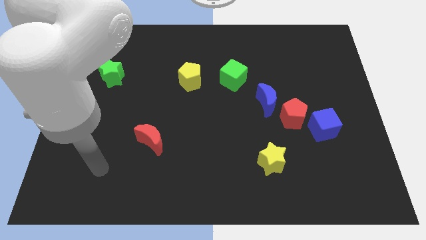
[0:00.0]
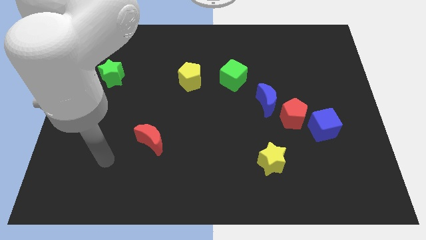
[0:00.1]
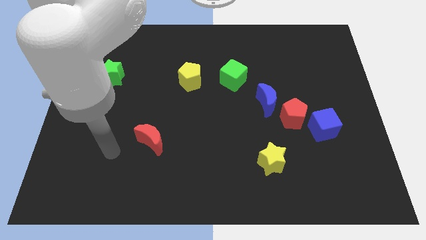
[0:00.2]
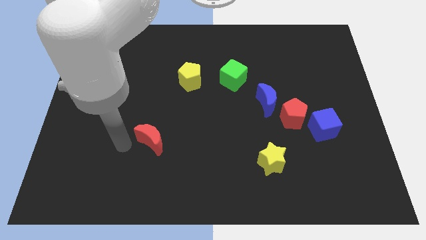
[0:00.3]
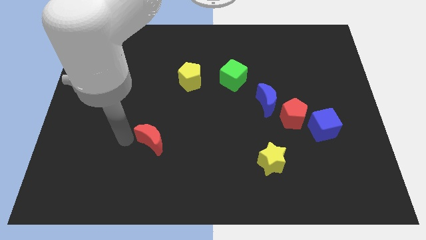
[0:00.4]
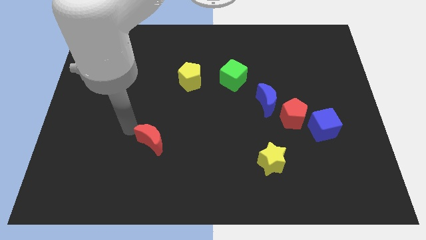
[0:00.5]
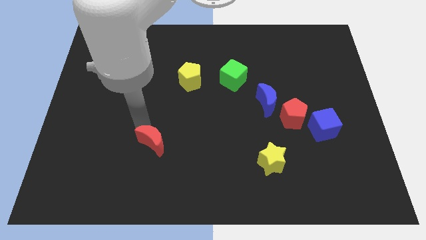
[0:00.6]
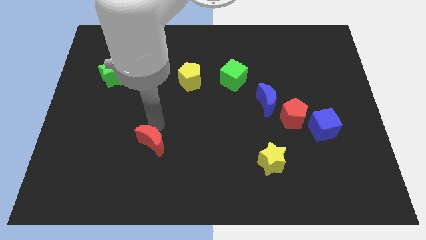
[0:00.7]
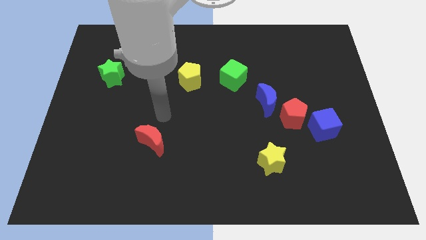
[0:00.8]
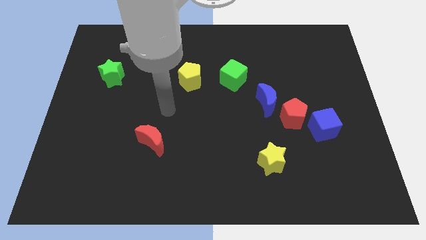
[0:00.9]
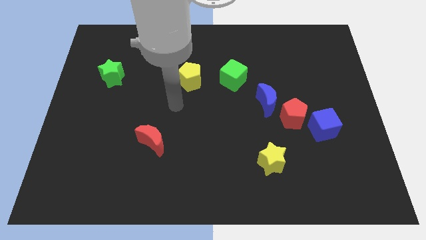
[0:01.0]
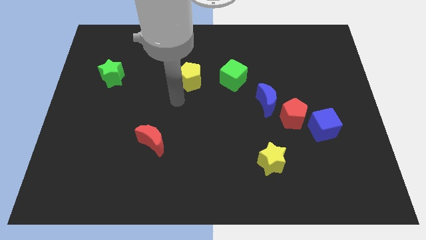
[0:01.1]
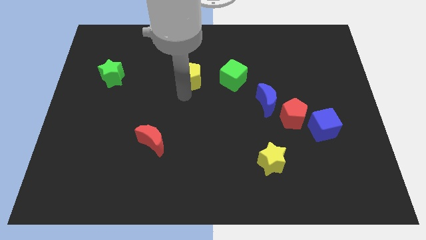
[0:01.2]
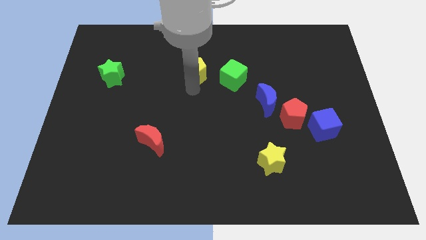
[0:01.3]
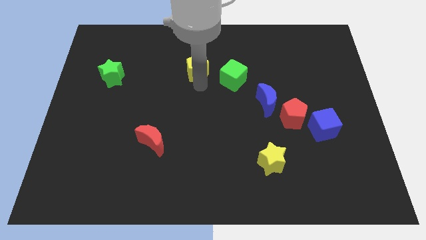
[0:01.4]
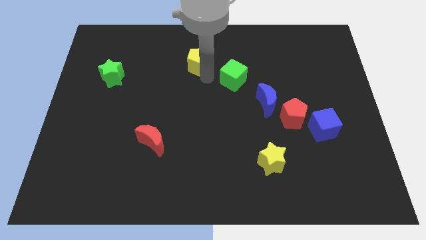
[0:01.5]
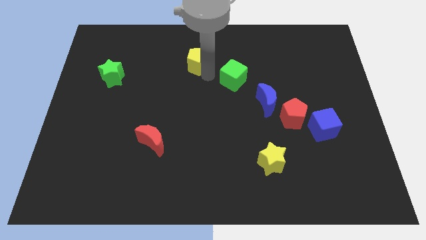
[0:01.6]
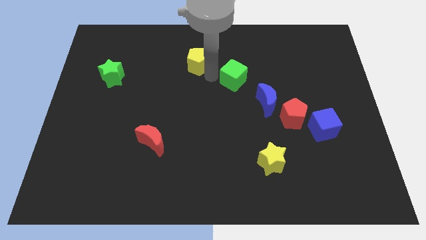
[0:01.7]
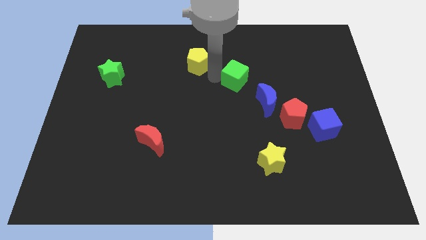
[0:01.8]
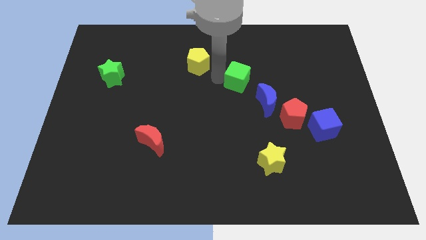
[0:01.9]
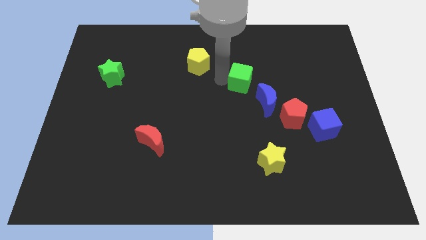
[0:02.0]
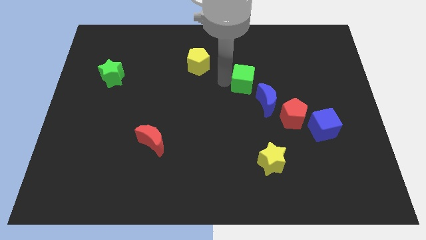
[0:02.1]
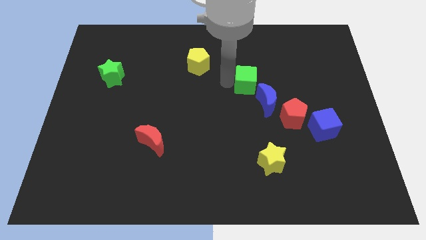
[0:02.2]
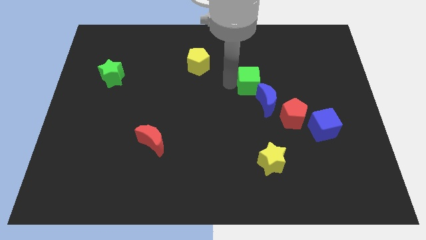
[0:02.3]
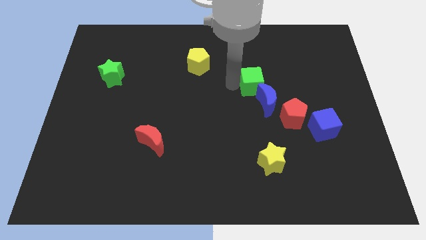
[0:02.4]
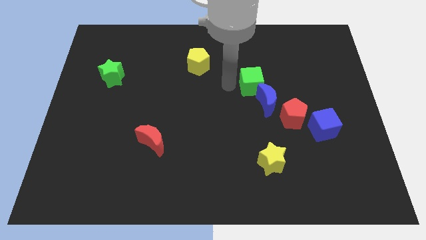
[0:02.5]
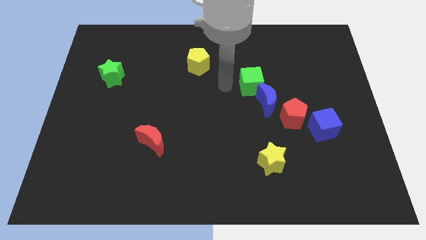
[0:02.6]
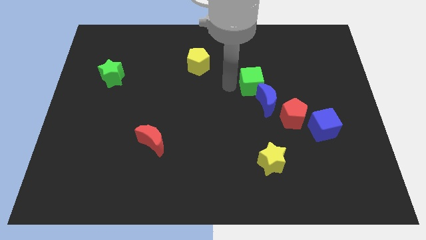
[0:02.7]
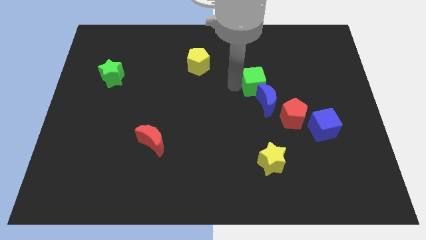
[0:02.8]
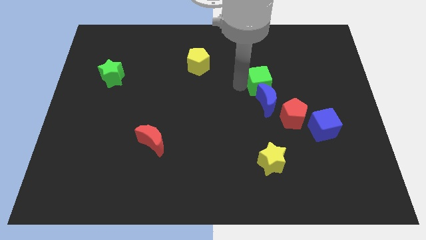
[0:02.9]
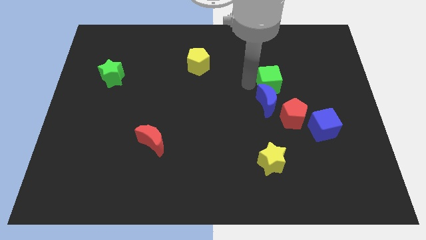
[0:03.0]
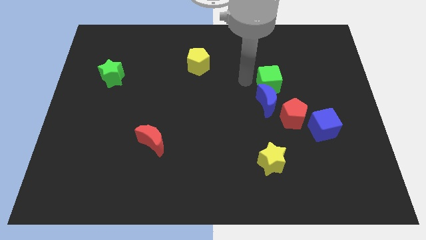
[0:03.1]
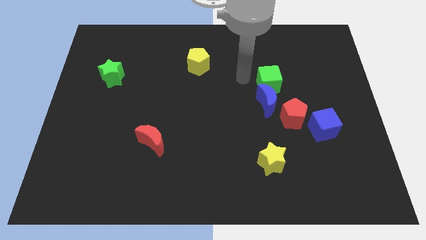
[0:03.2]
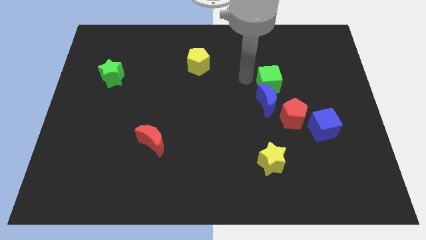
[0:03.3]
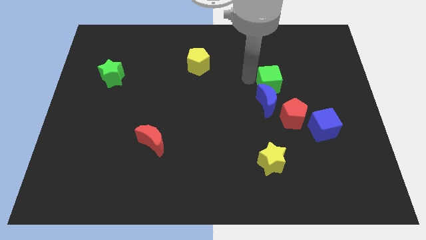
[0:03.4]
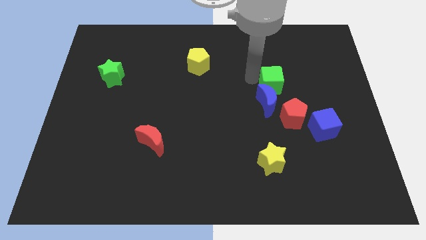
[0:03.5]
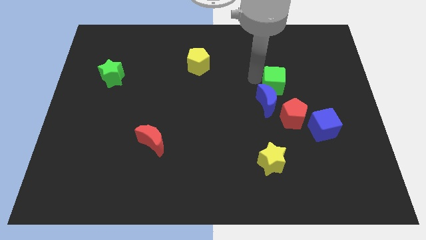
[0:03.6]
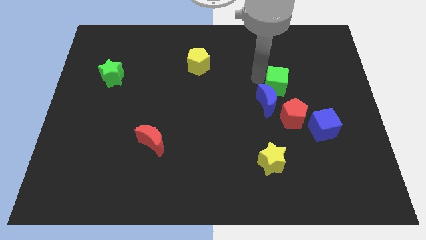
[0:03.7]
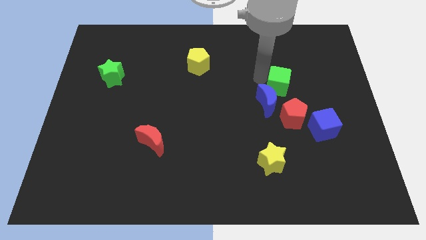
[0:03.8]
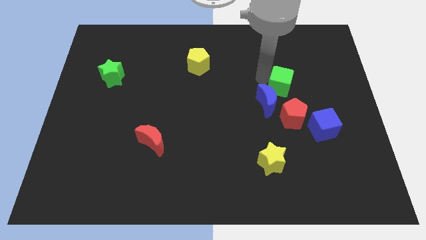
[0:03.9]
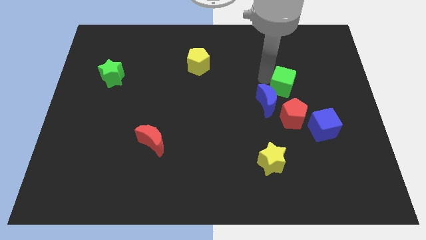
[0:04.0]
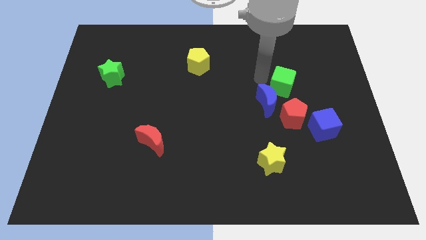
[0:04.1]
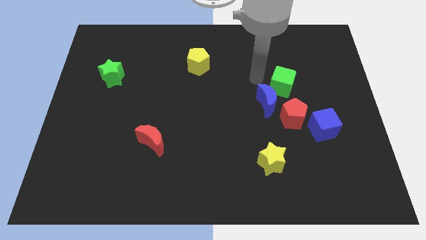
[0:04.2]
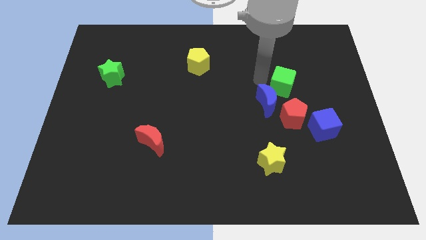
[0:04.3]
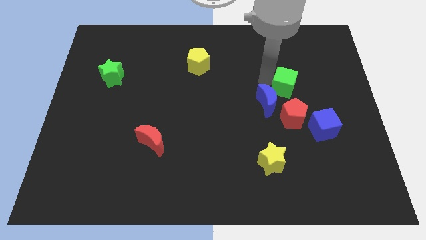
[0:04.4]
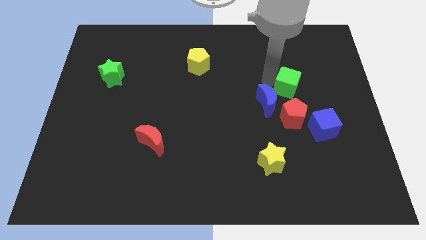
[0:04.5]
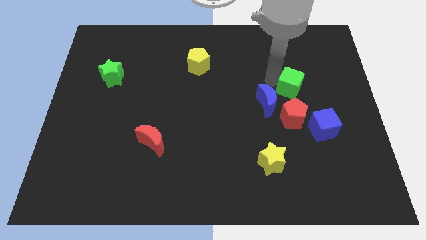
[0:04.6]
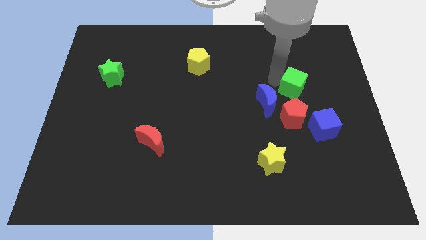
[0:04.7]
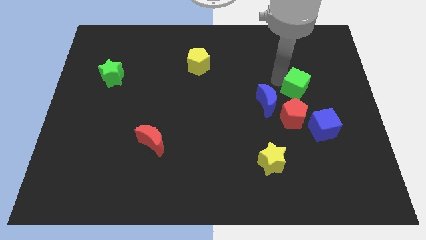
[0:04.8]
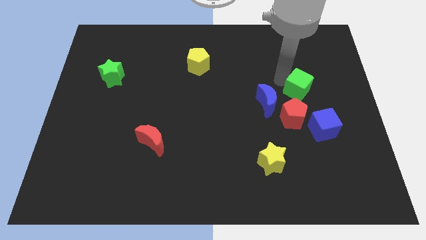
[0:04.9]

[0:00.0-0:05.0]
push the green cube diagonally up and to the right of the red pentagon

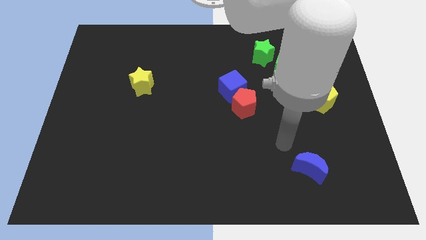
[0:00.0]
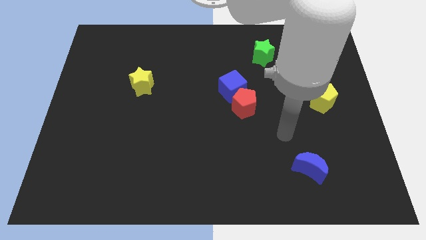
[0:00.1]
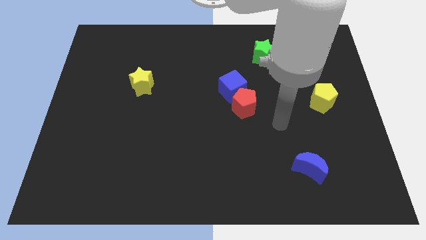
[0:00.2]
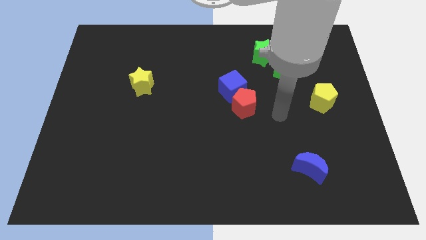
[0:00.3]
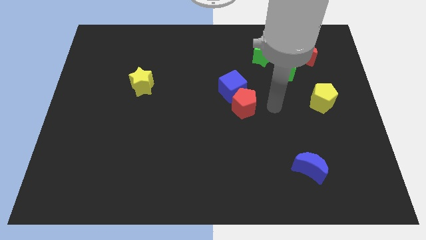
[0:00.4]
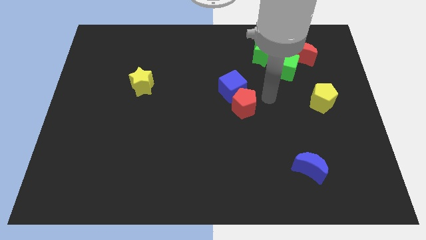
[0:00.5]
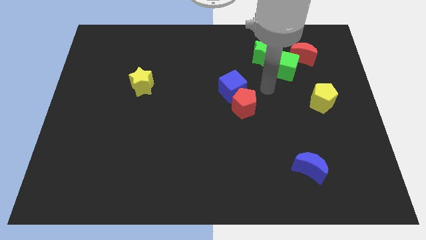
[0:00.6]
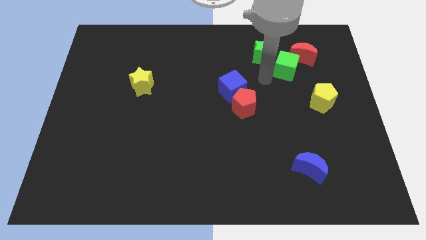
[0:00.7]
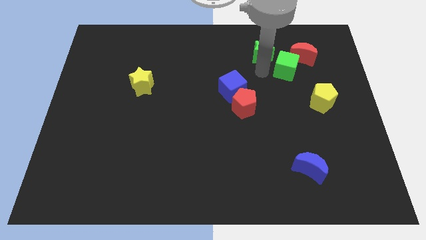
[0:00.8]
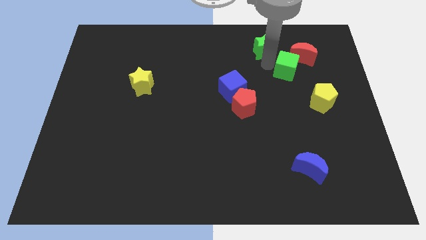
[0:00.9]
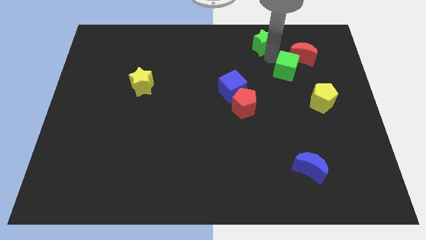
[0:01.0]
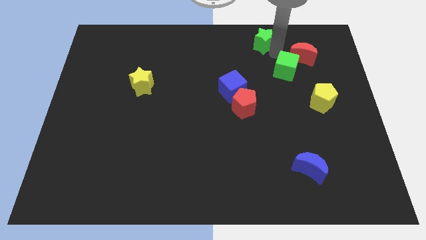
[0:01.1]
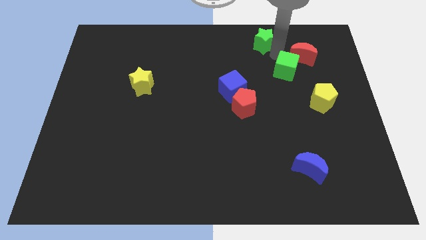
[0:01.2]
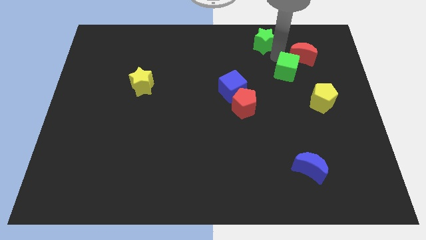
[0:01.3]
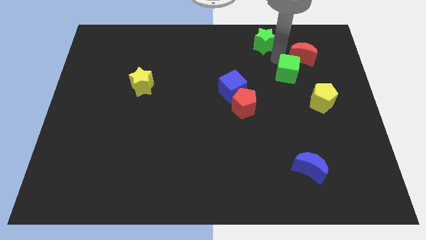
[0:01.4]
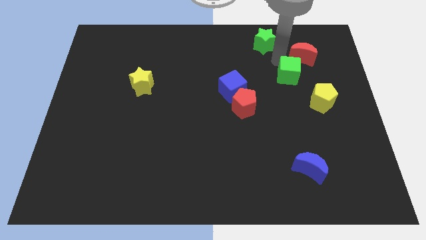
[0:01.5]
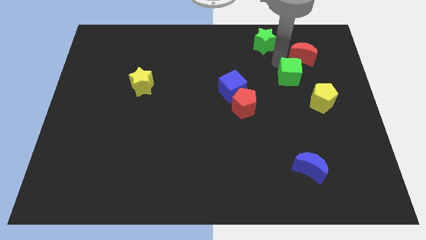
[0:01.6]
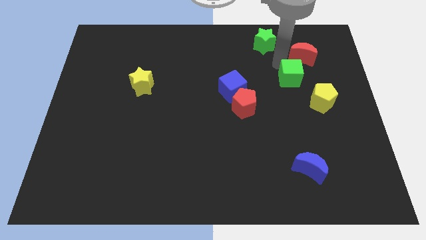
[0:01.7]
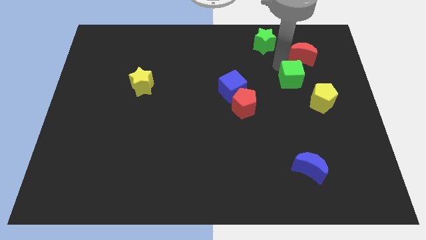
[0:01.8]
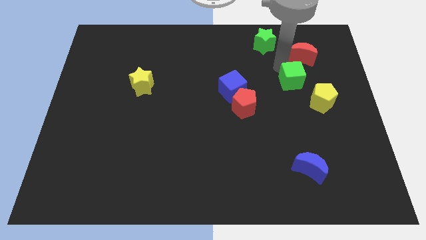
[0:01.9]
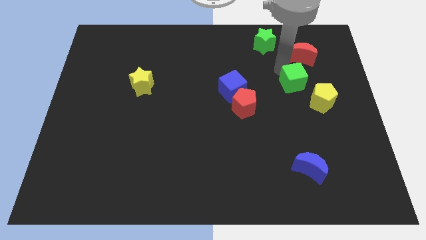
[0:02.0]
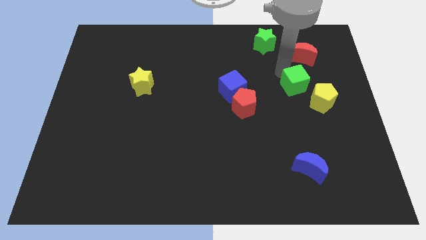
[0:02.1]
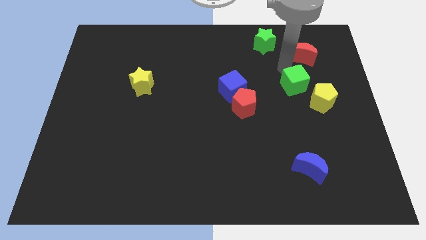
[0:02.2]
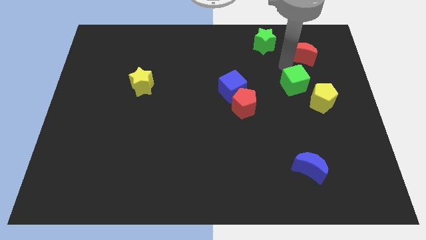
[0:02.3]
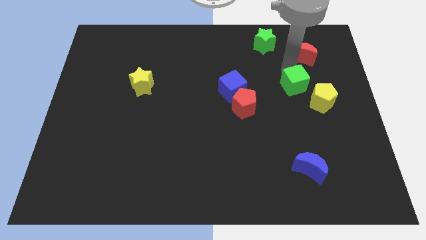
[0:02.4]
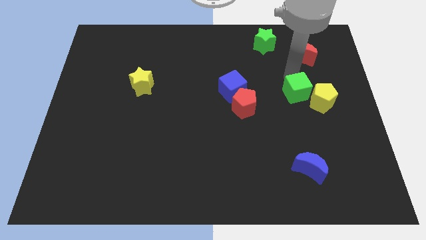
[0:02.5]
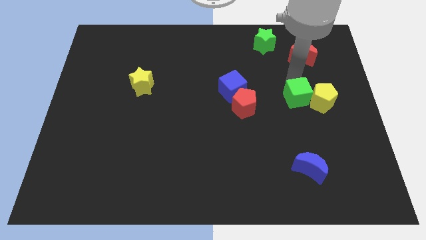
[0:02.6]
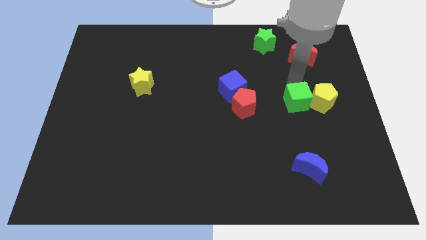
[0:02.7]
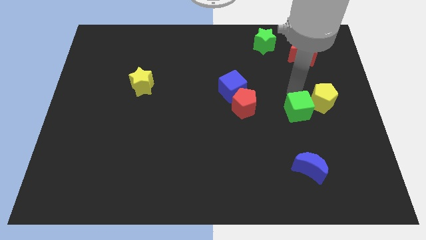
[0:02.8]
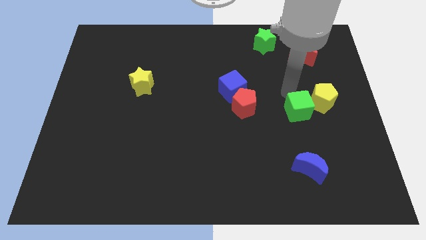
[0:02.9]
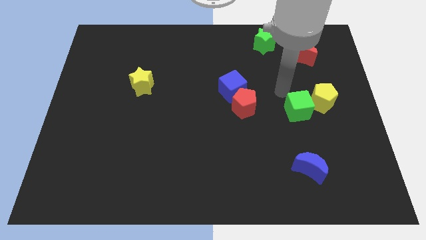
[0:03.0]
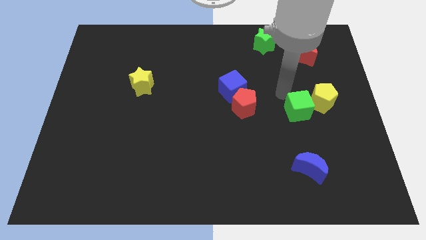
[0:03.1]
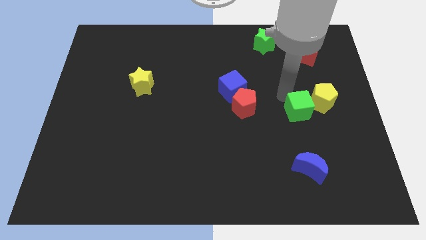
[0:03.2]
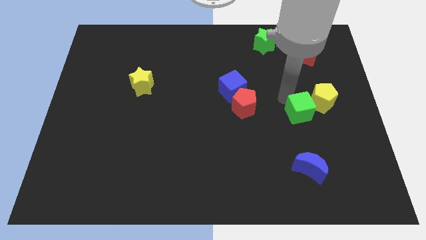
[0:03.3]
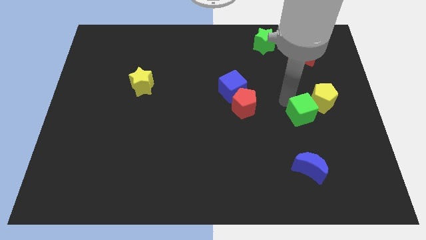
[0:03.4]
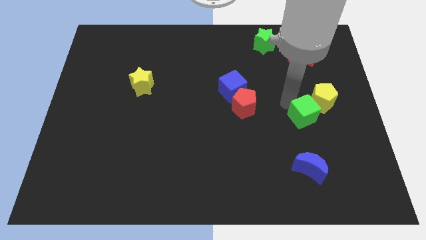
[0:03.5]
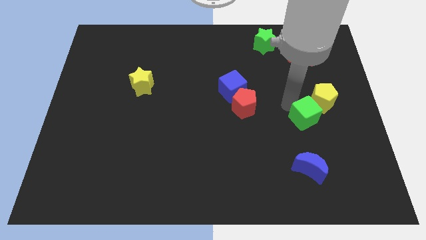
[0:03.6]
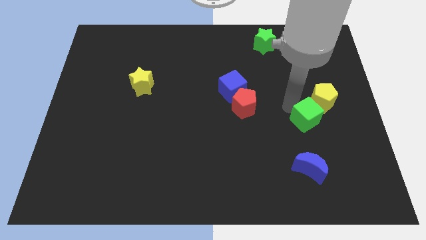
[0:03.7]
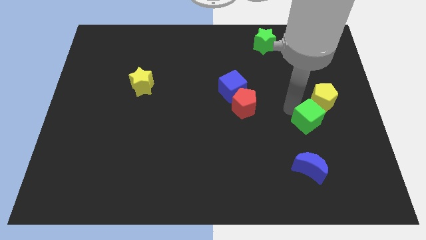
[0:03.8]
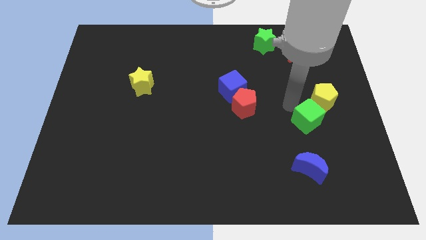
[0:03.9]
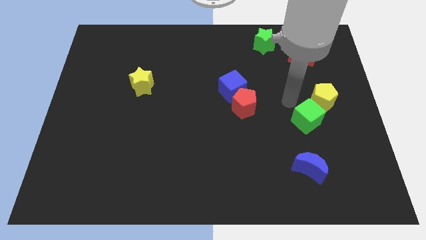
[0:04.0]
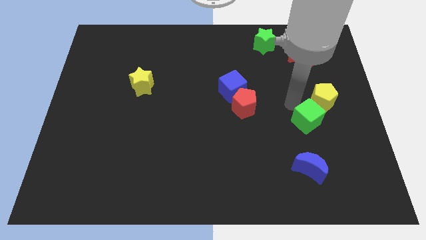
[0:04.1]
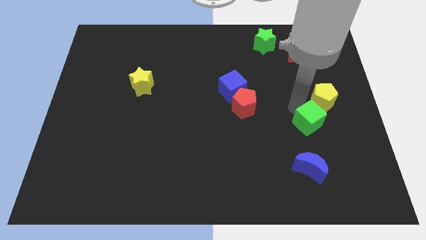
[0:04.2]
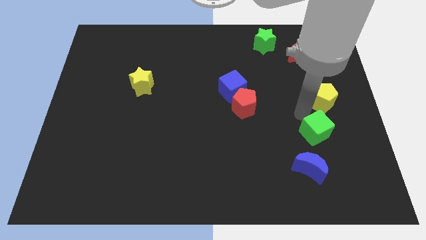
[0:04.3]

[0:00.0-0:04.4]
push the green cube to the top right side of the blue moon
